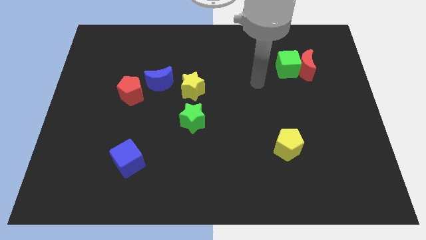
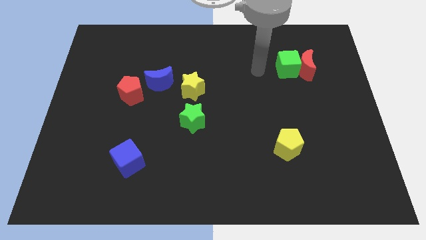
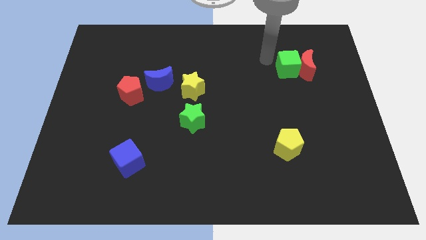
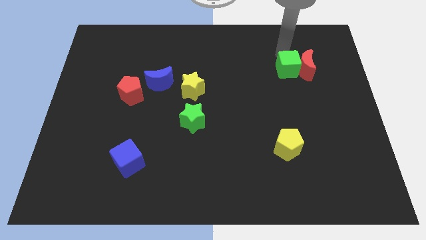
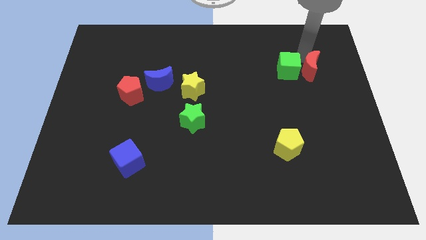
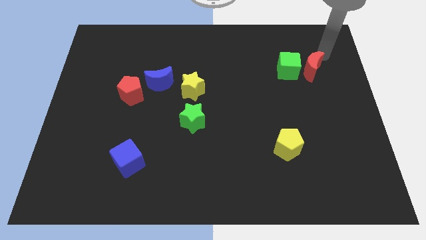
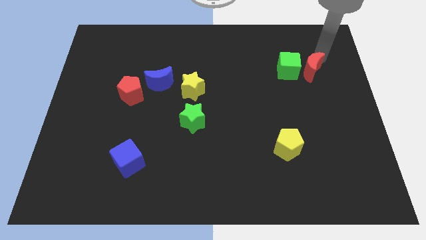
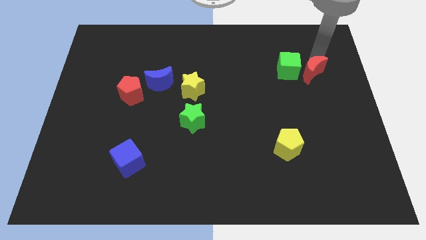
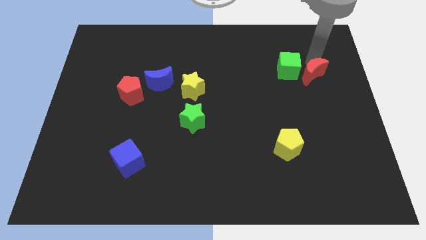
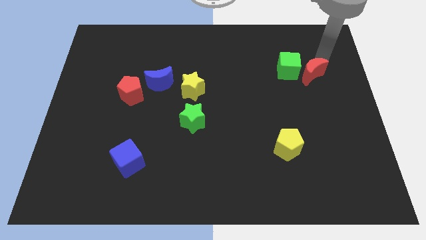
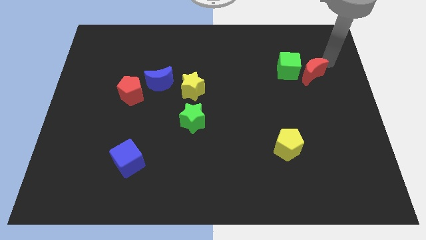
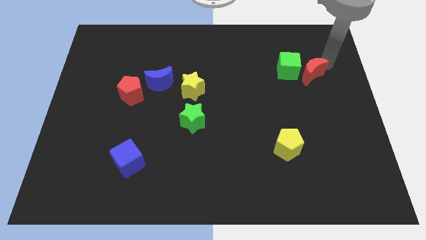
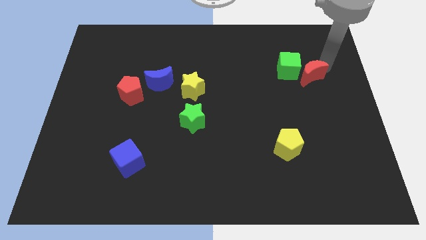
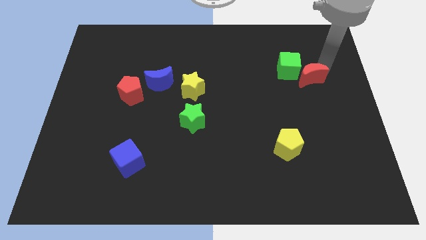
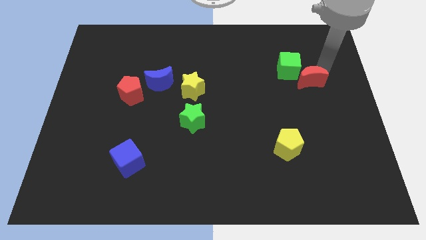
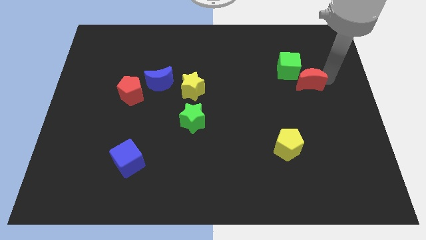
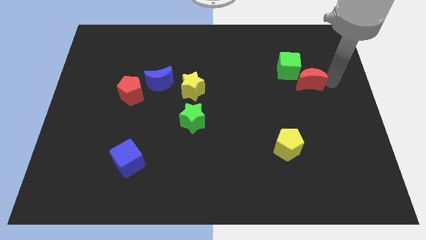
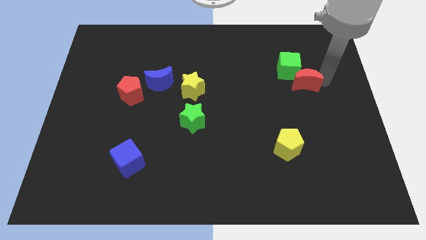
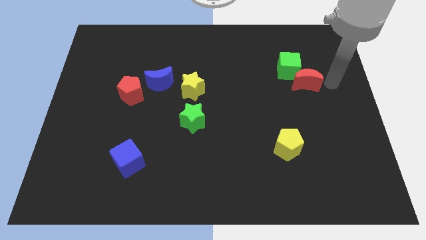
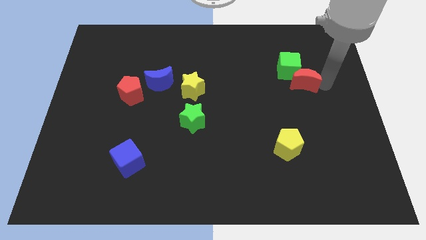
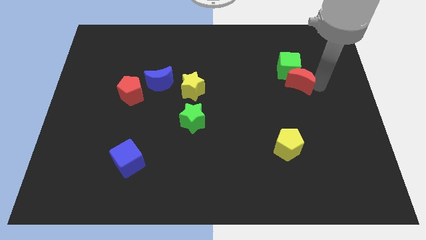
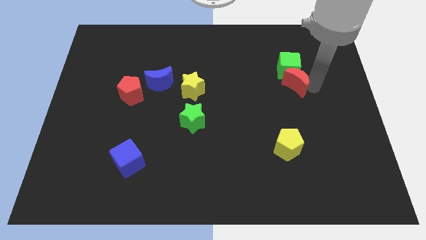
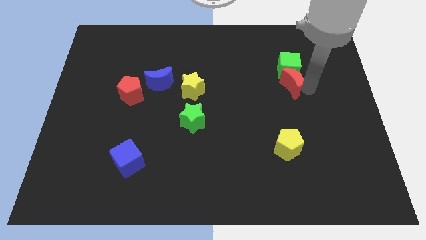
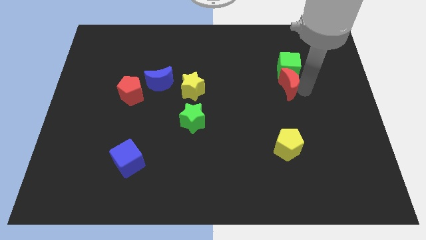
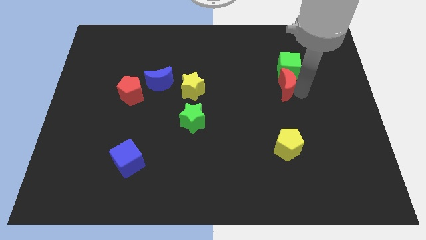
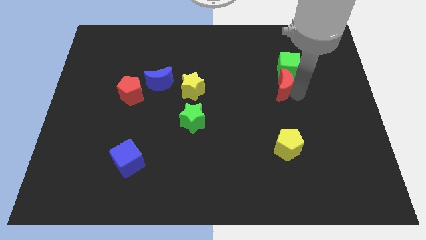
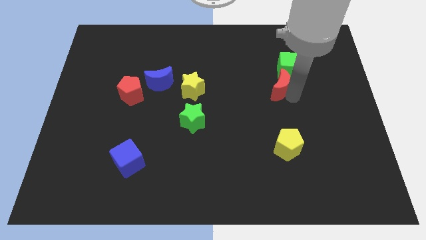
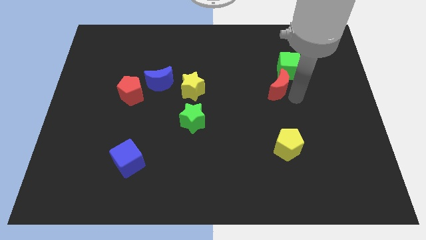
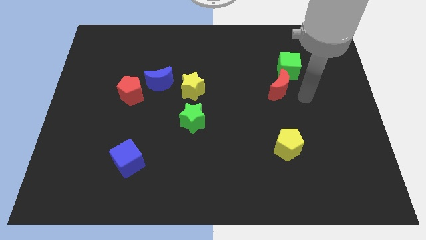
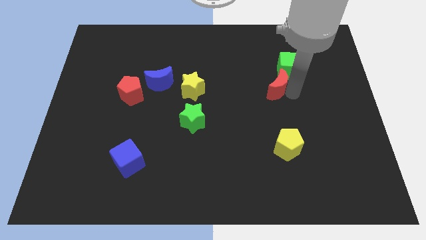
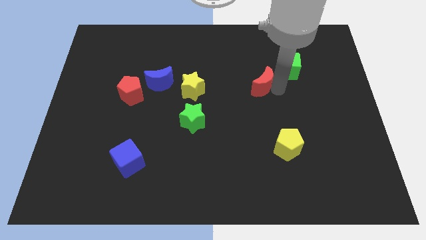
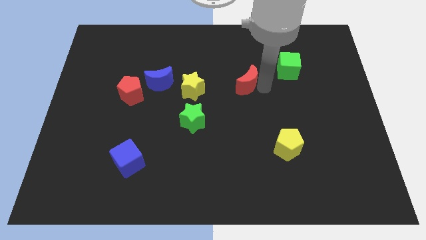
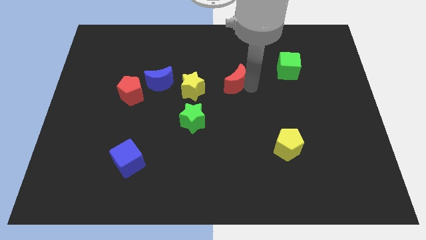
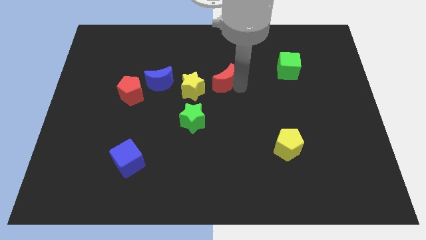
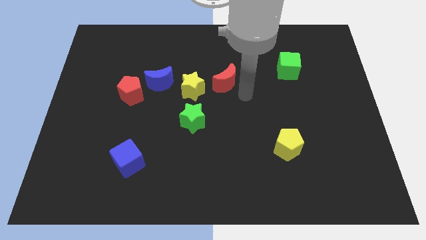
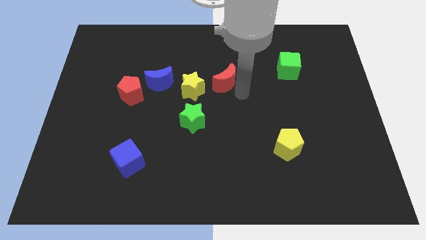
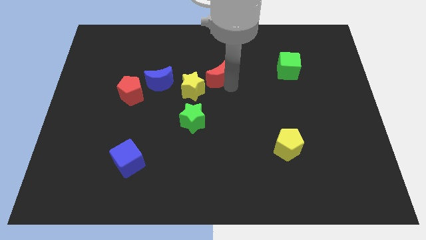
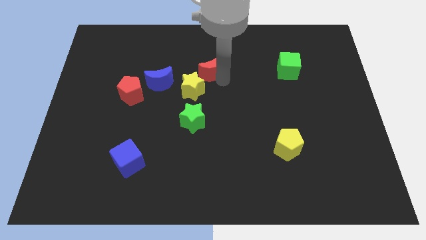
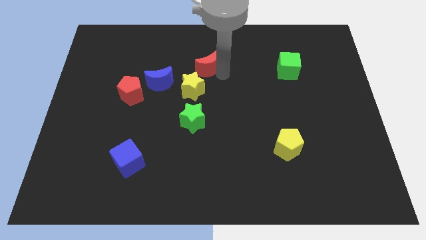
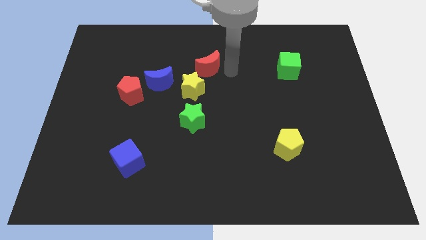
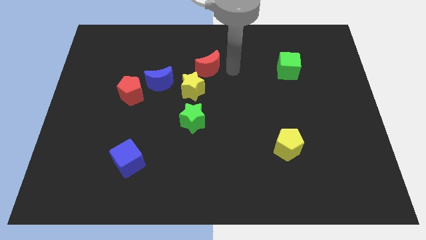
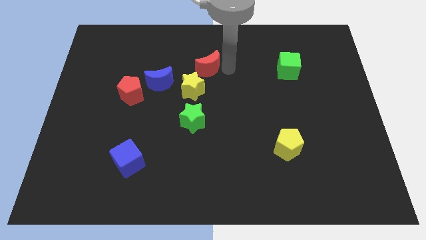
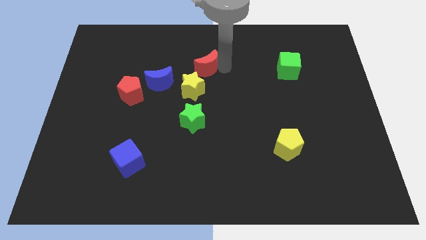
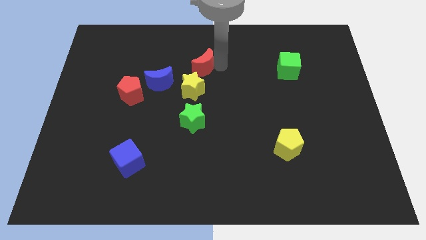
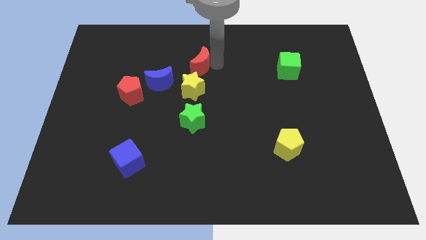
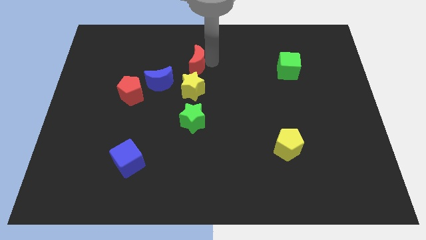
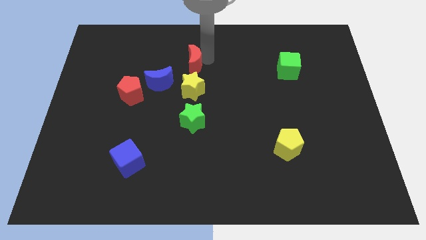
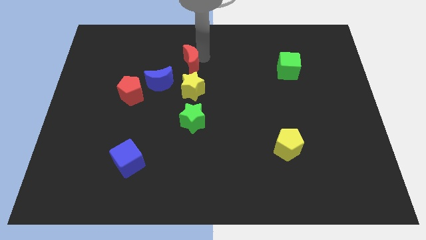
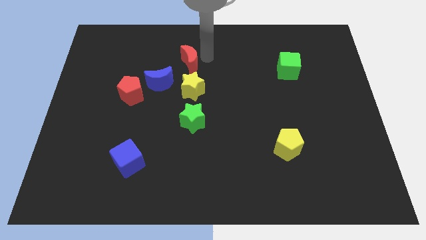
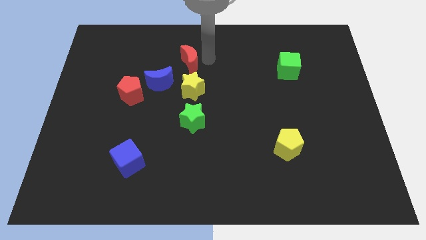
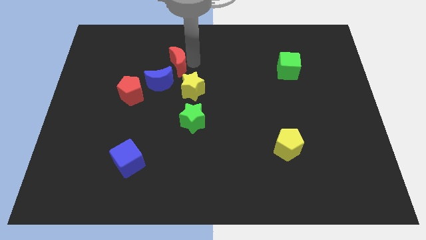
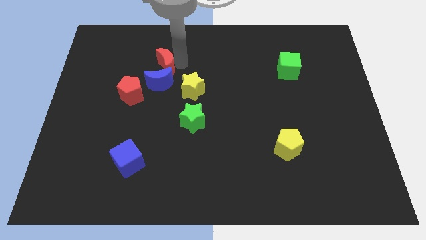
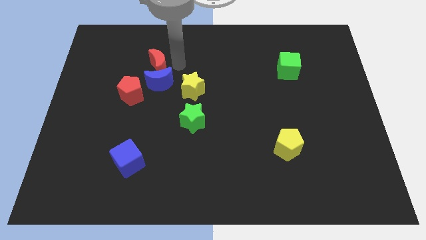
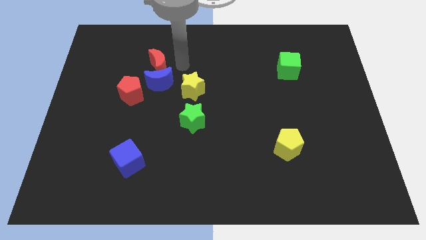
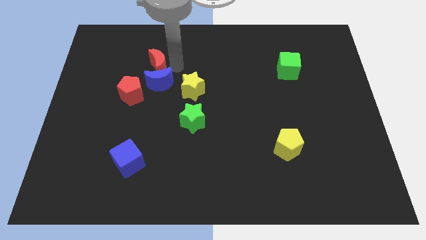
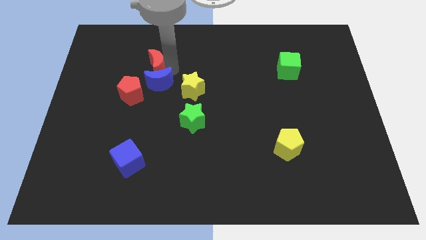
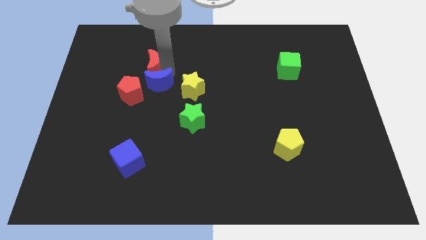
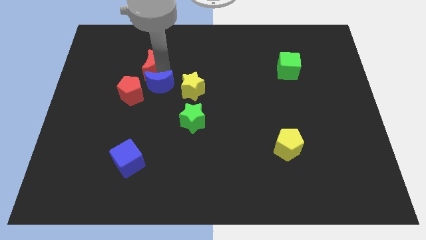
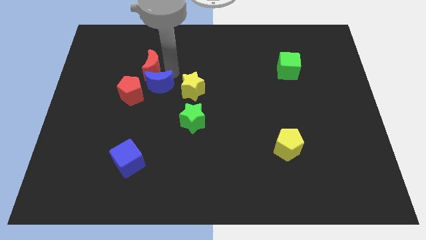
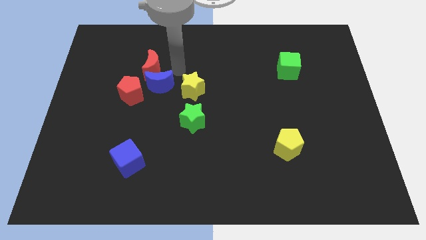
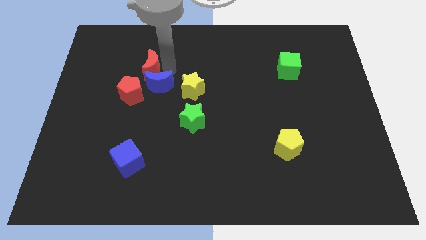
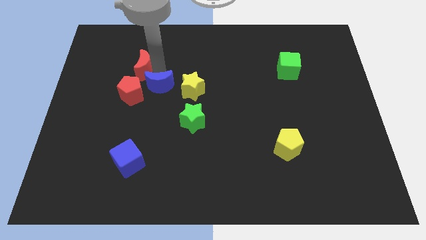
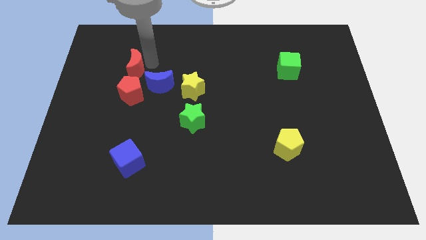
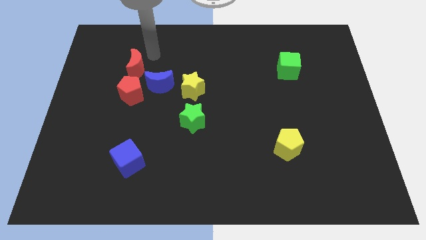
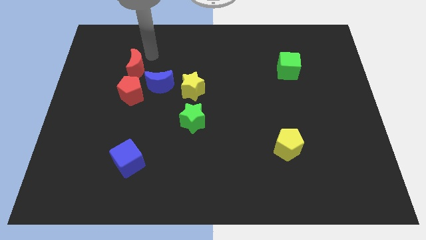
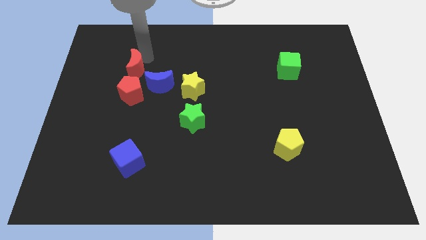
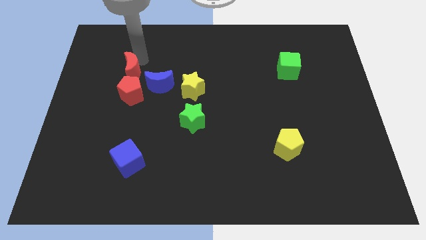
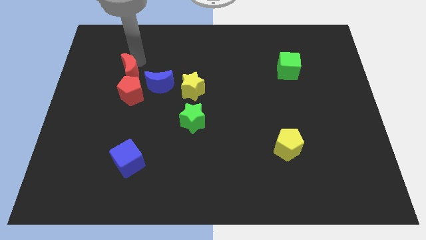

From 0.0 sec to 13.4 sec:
push the red moon left of the blue moon
